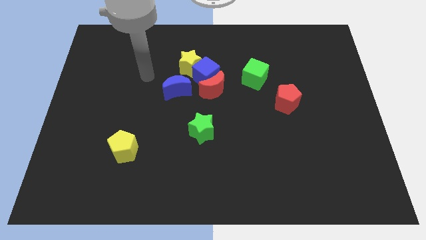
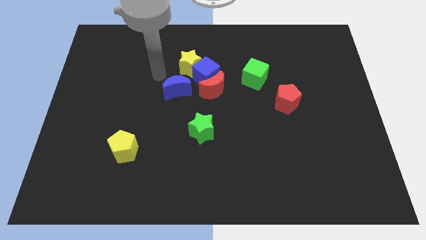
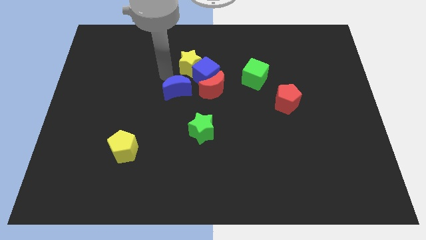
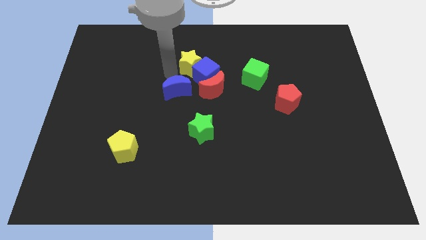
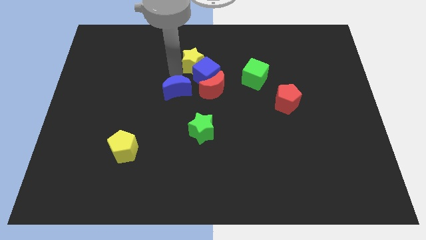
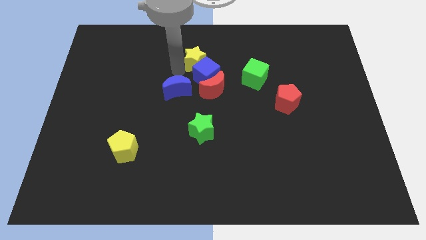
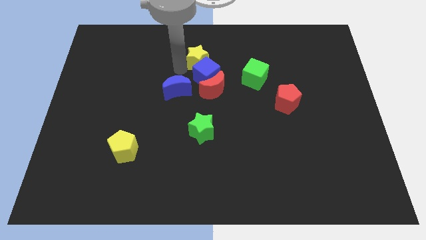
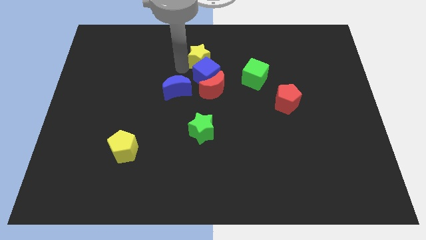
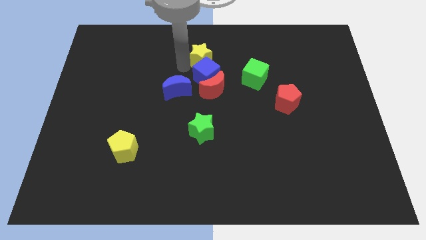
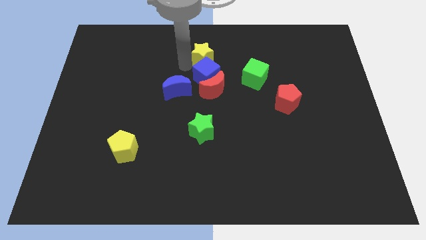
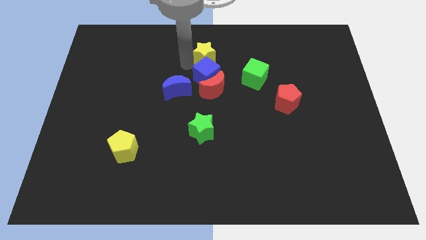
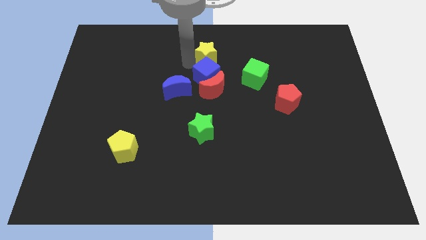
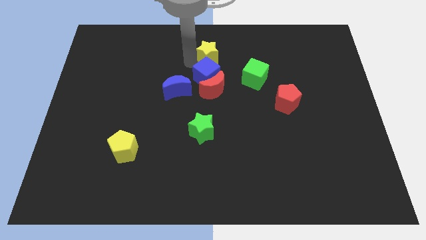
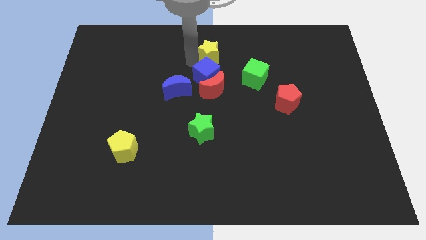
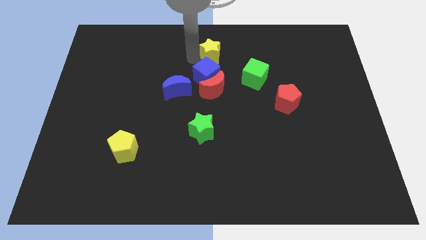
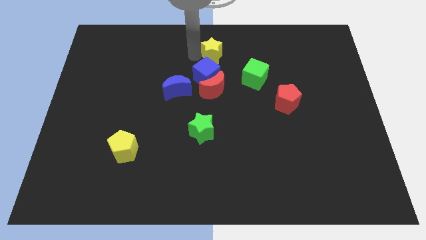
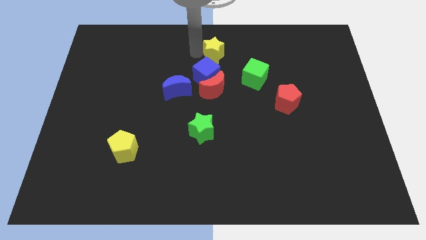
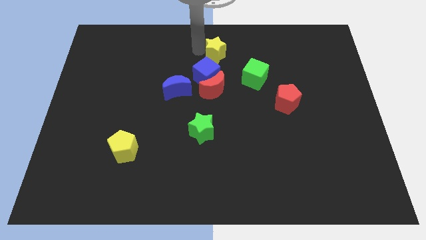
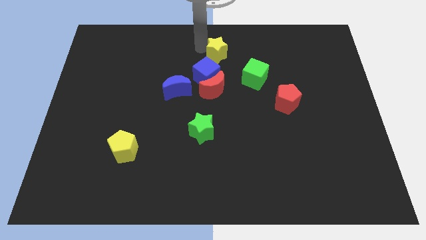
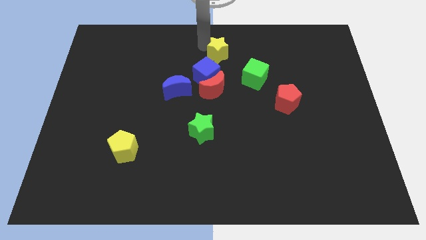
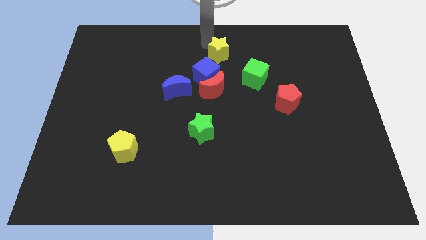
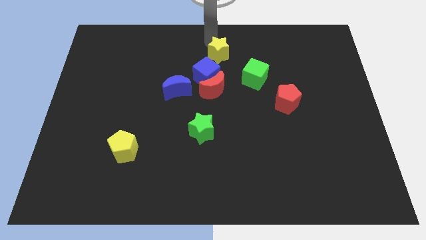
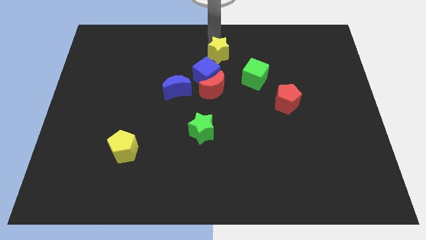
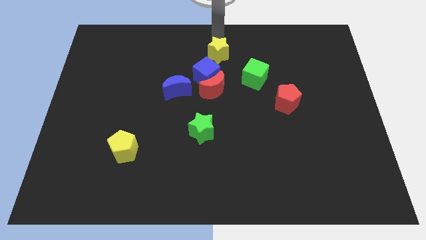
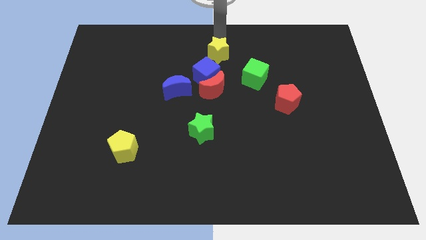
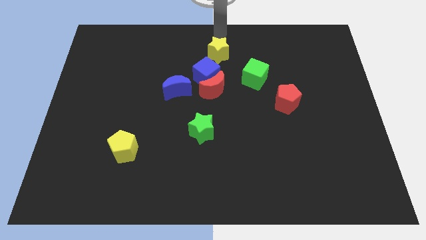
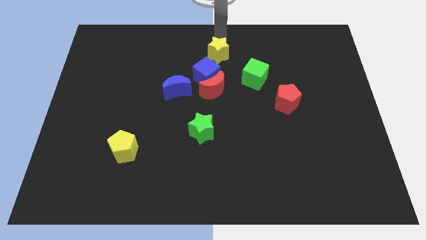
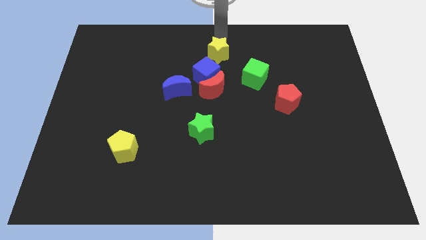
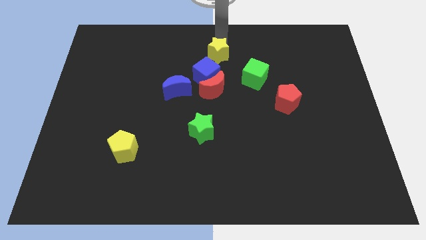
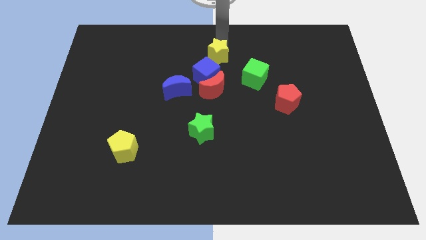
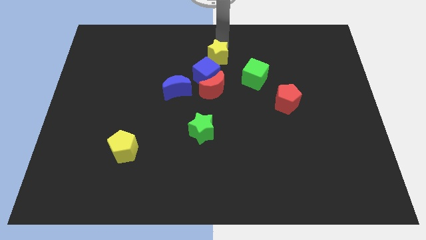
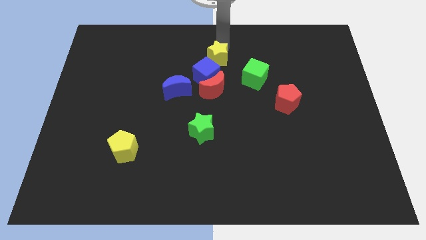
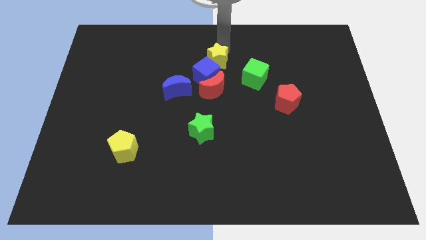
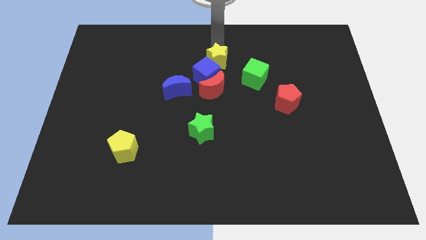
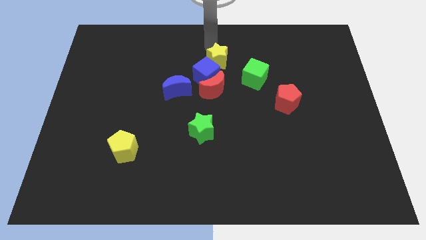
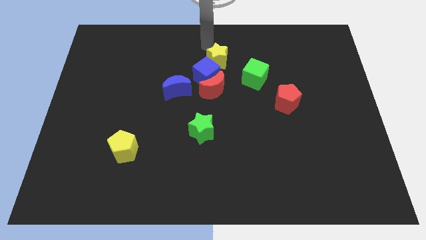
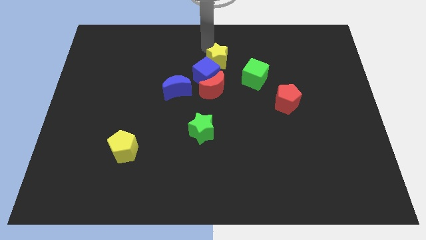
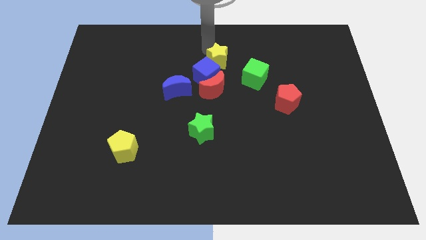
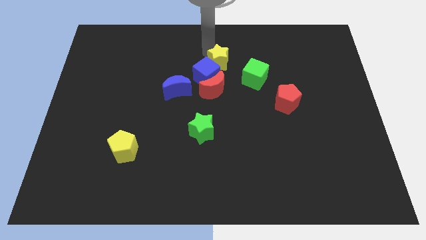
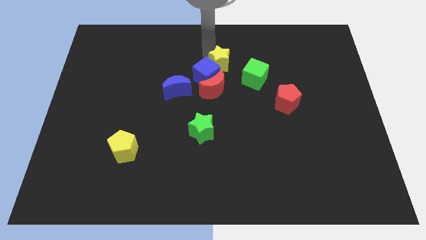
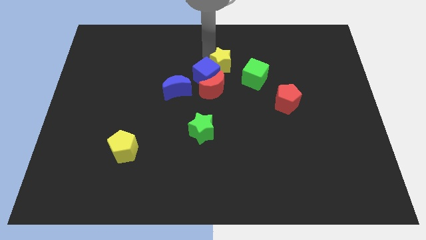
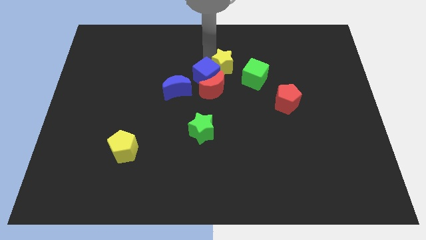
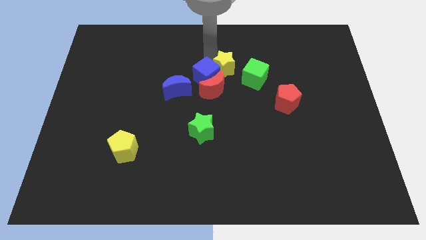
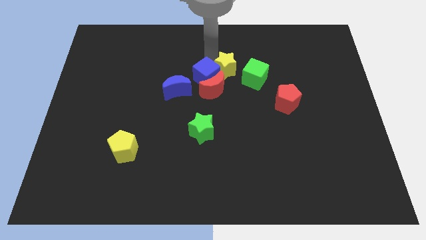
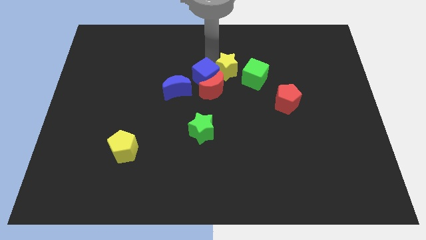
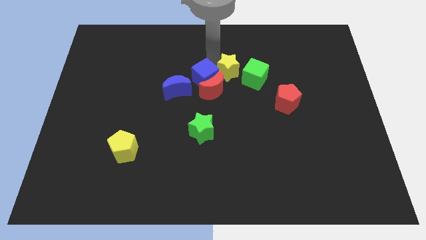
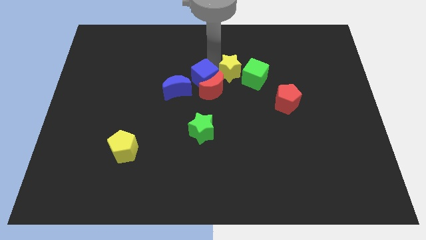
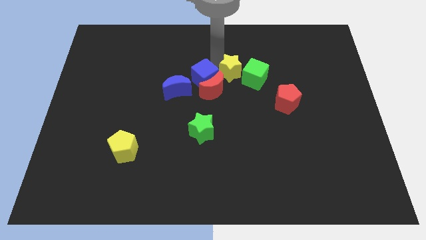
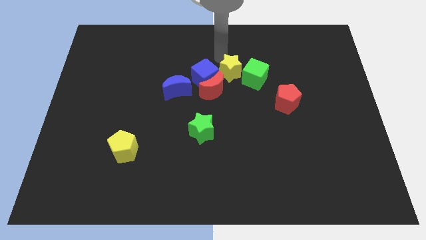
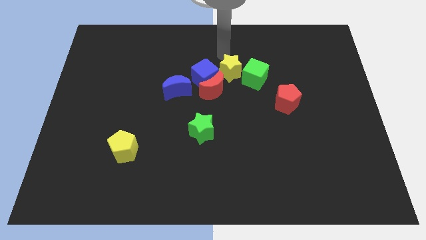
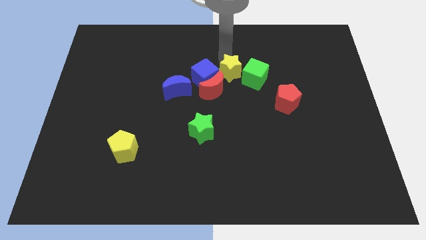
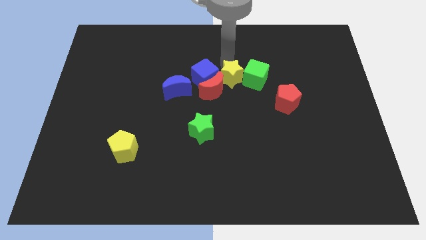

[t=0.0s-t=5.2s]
slide the yellow star a little down and then to the right

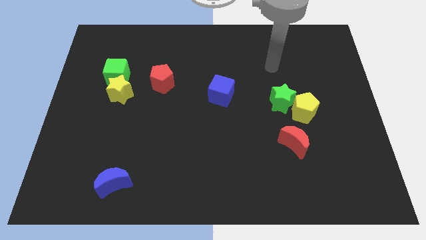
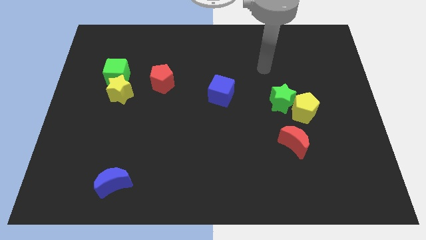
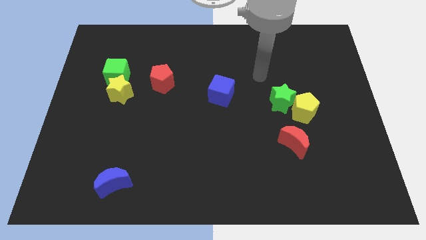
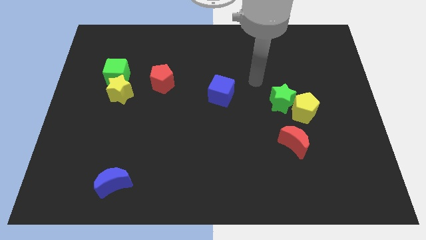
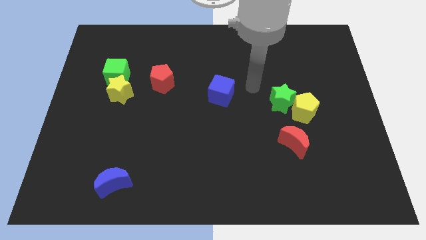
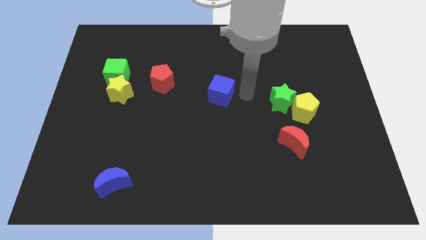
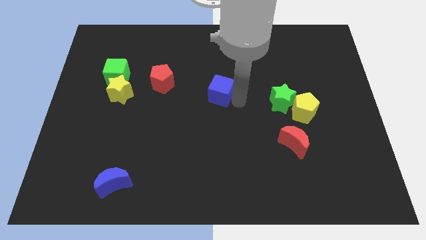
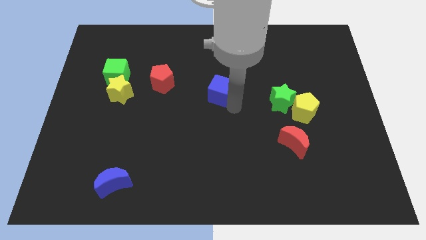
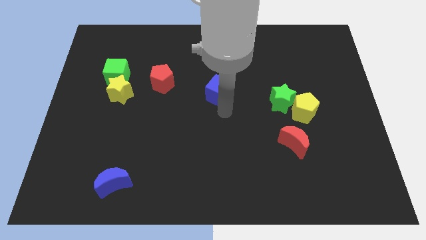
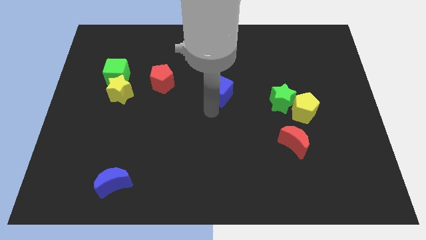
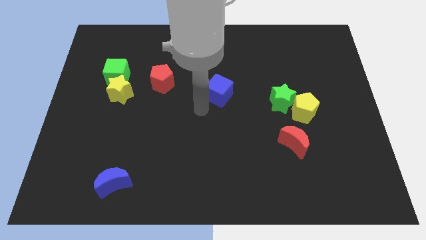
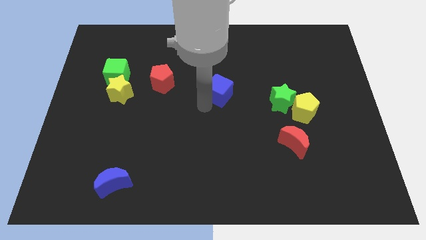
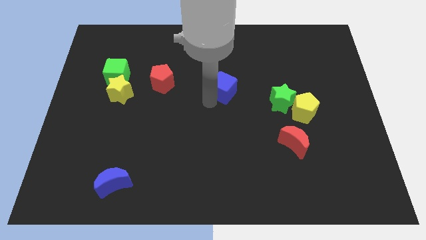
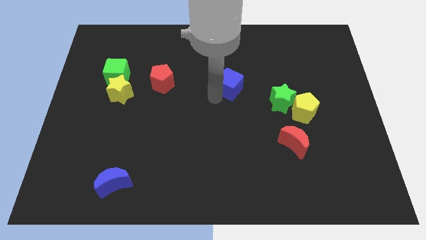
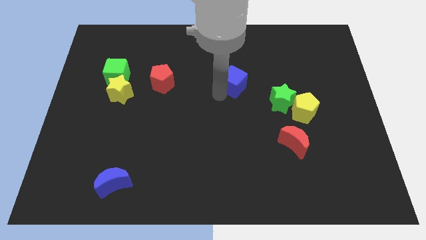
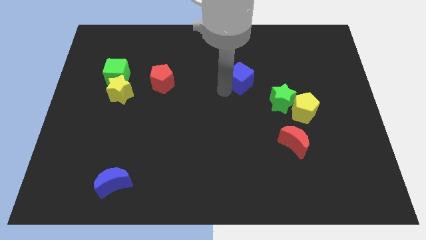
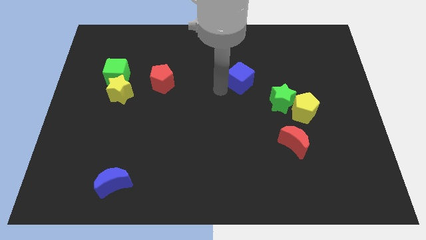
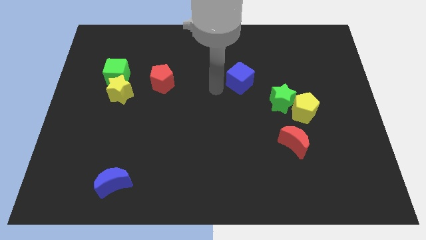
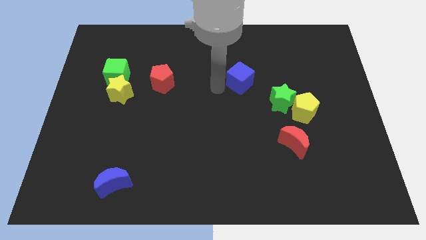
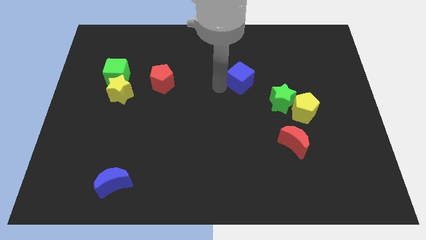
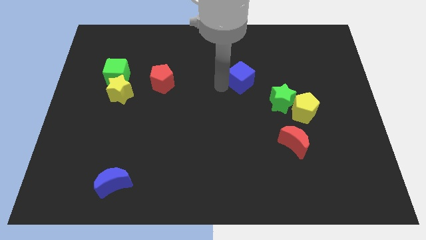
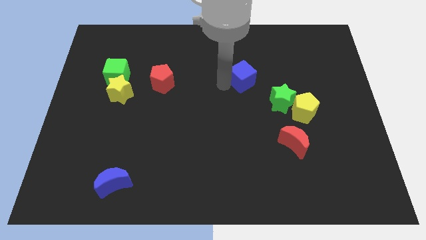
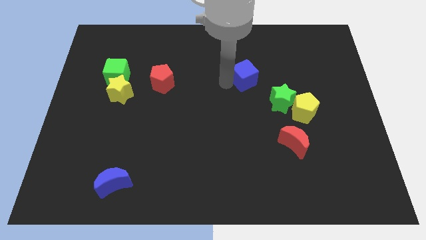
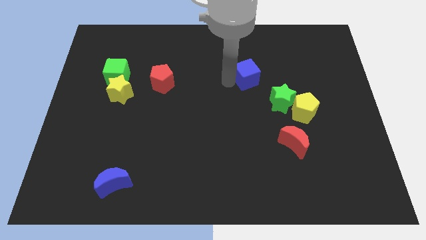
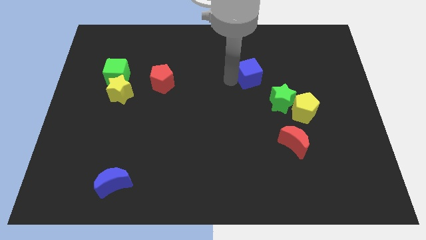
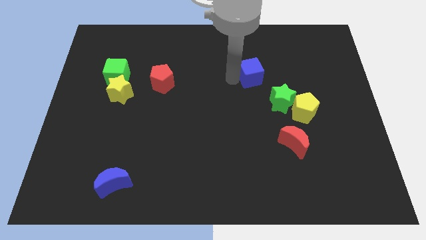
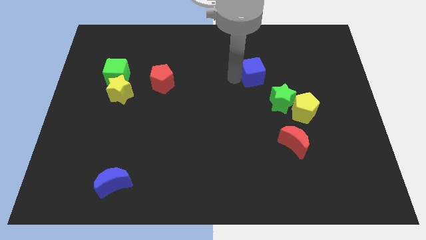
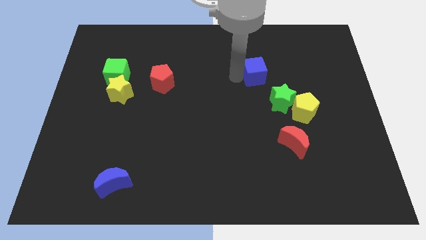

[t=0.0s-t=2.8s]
slightly push the blue cube right

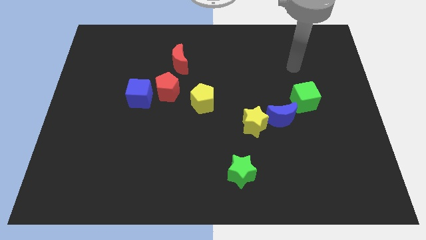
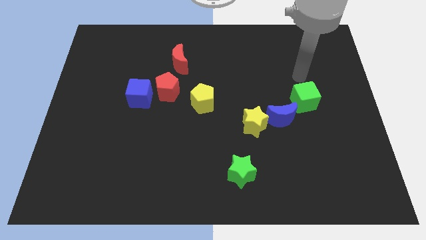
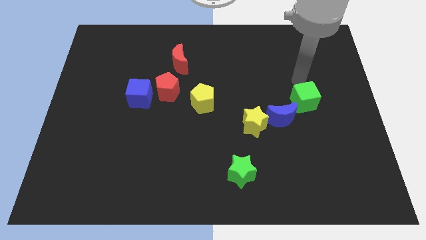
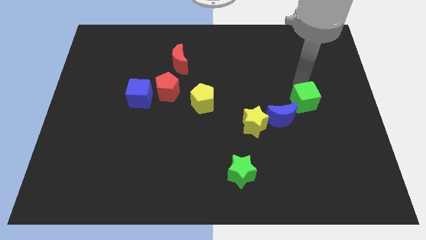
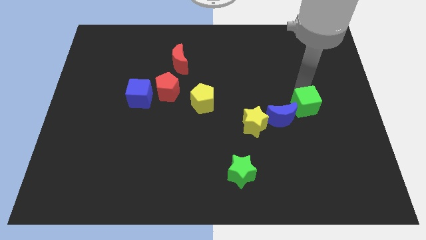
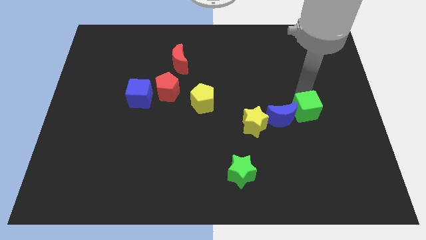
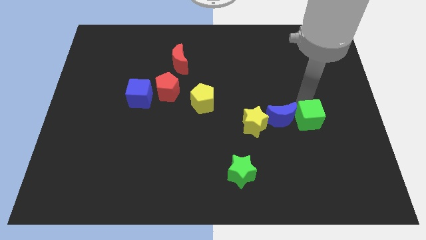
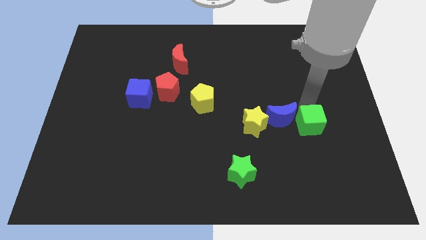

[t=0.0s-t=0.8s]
slightly move the green cube down
